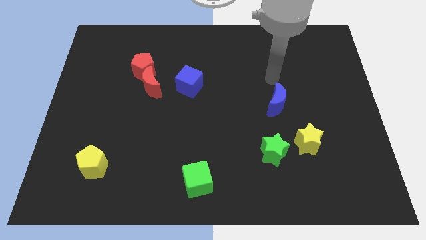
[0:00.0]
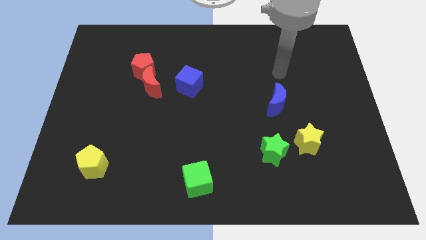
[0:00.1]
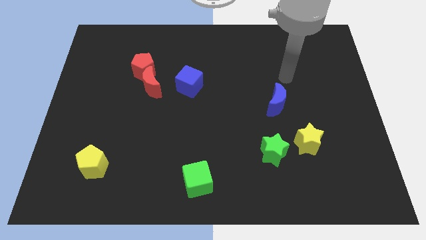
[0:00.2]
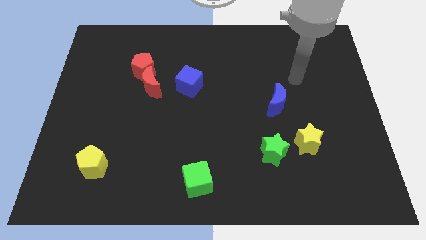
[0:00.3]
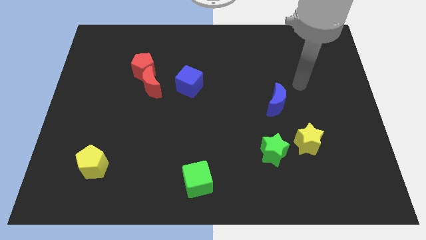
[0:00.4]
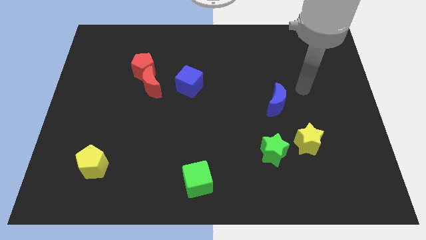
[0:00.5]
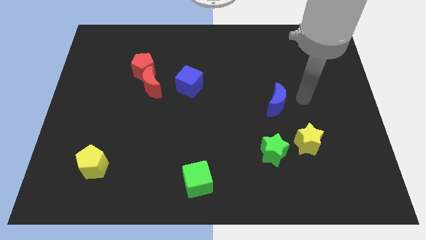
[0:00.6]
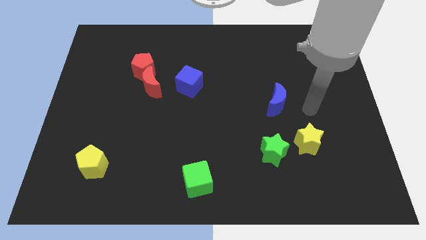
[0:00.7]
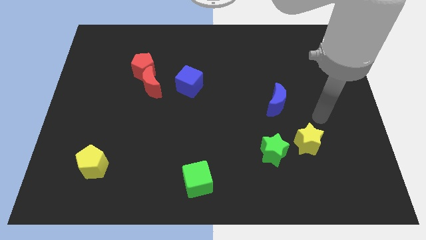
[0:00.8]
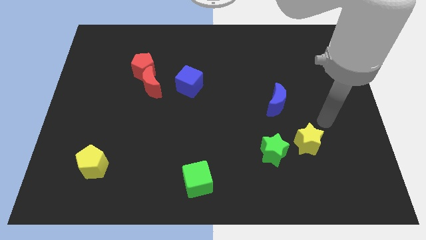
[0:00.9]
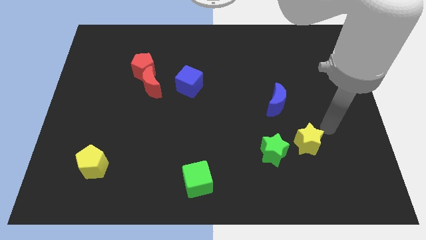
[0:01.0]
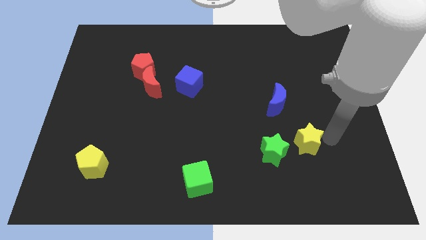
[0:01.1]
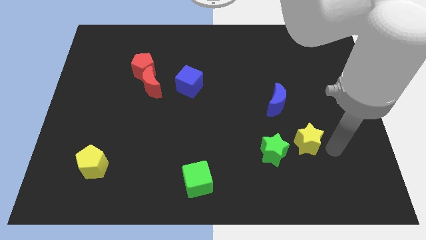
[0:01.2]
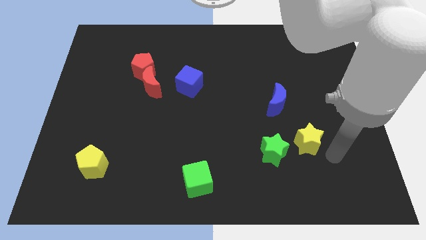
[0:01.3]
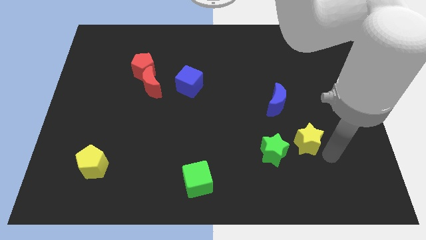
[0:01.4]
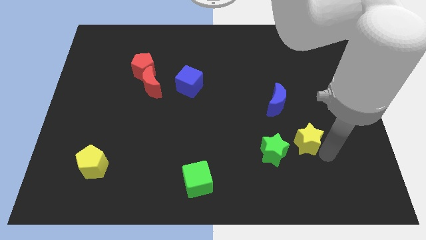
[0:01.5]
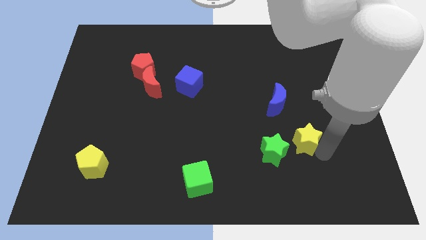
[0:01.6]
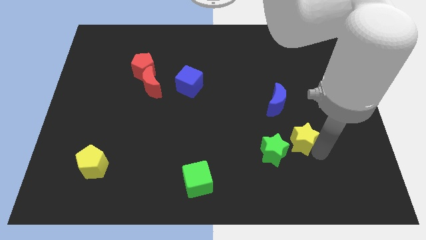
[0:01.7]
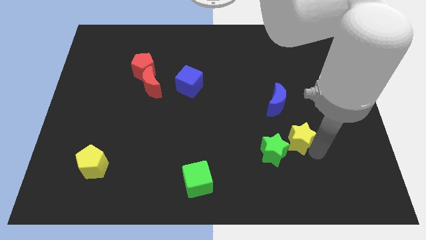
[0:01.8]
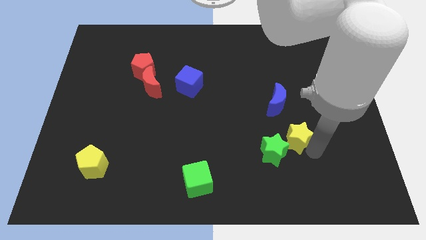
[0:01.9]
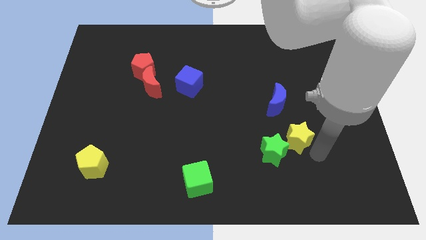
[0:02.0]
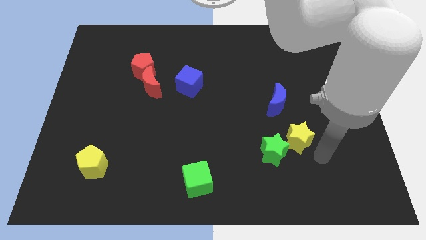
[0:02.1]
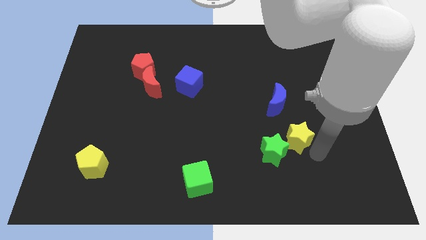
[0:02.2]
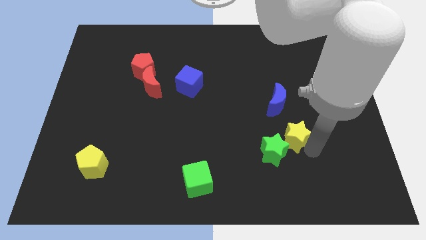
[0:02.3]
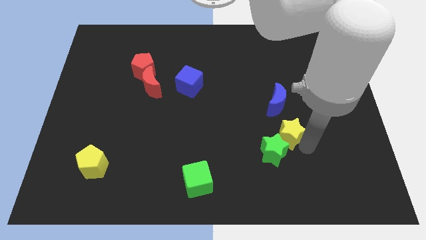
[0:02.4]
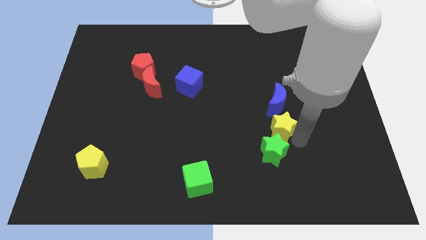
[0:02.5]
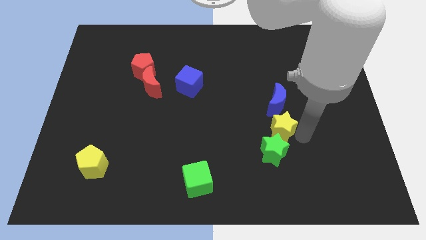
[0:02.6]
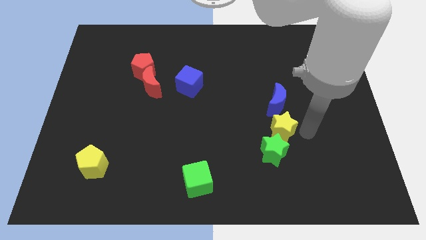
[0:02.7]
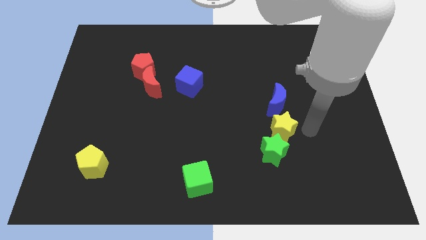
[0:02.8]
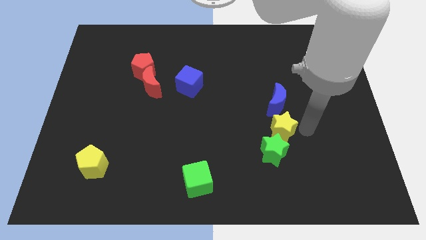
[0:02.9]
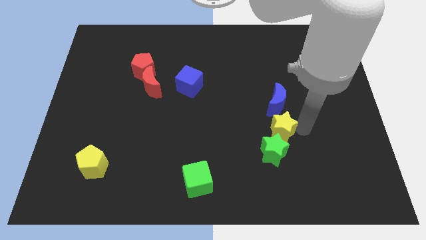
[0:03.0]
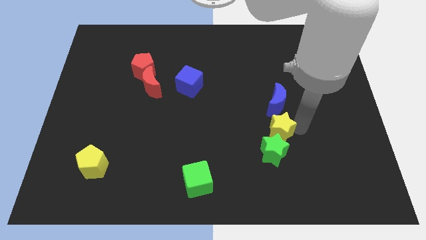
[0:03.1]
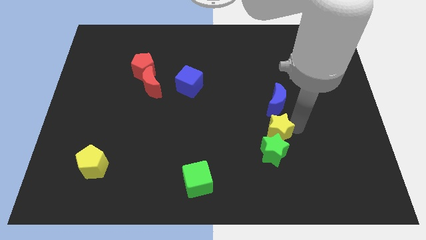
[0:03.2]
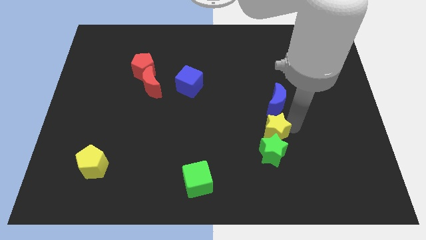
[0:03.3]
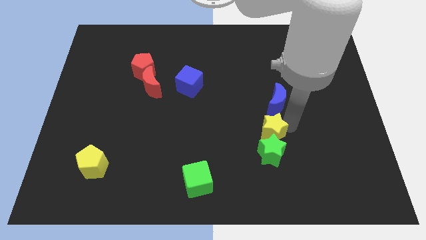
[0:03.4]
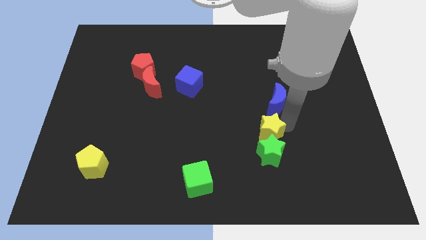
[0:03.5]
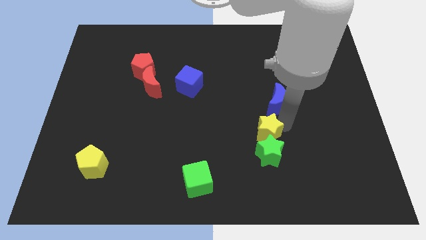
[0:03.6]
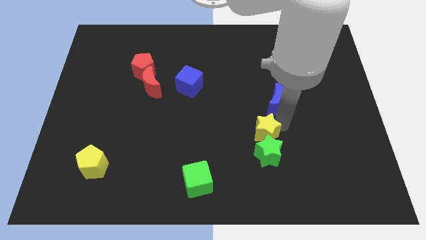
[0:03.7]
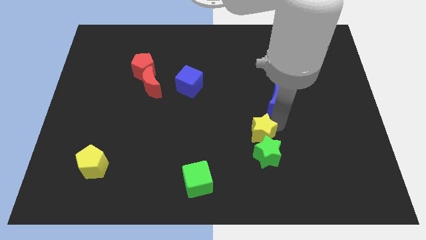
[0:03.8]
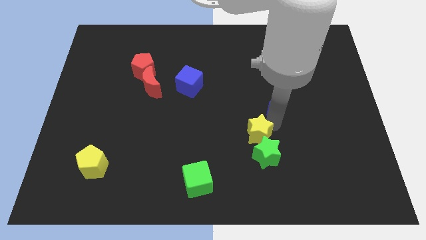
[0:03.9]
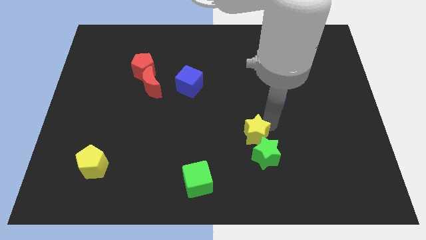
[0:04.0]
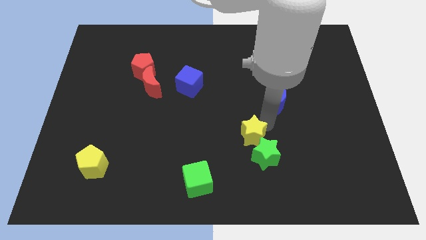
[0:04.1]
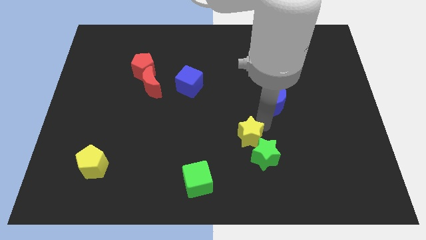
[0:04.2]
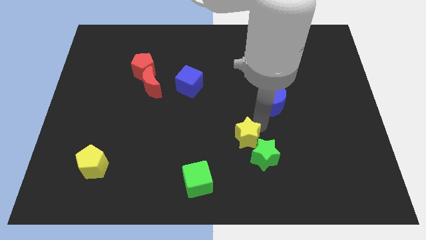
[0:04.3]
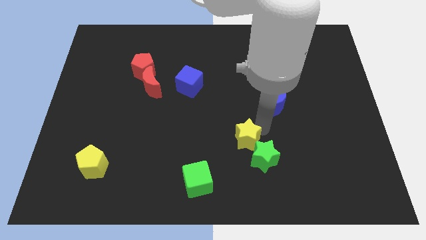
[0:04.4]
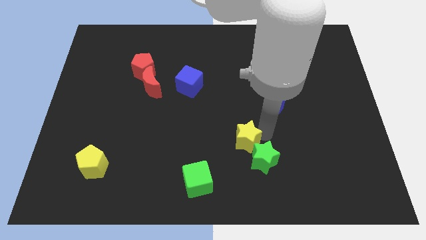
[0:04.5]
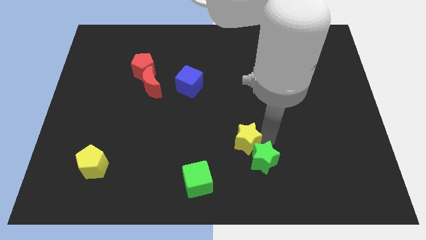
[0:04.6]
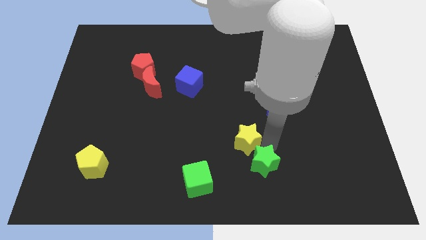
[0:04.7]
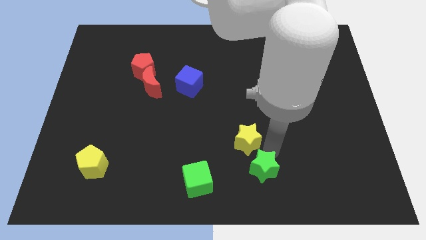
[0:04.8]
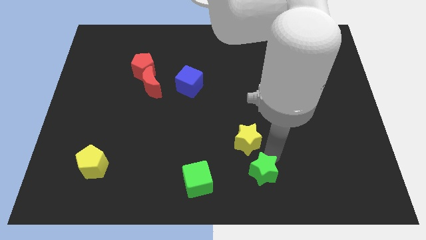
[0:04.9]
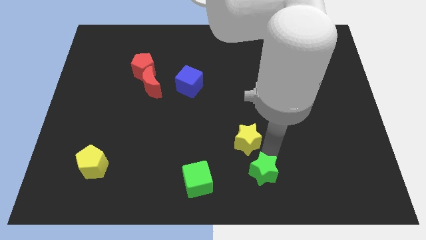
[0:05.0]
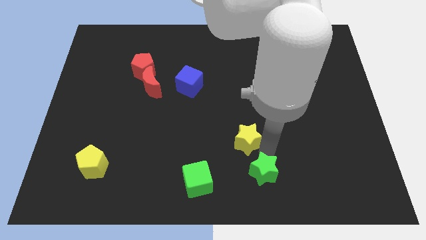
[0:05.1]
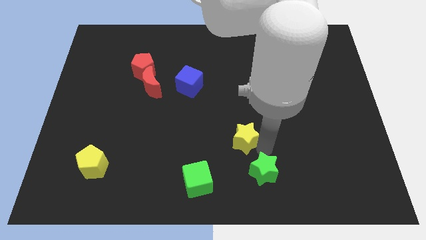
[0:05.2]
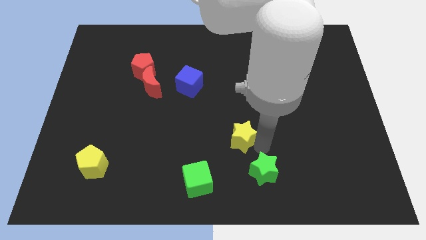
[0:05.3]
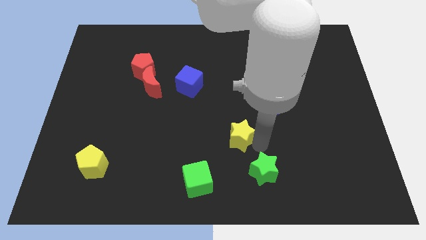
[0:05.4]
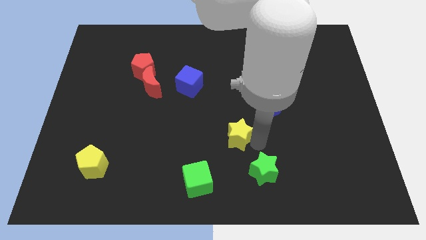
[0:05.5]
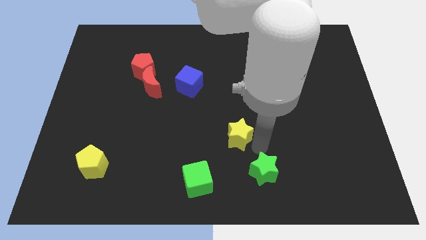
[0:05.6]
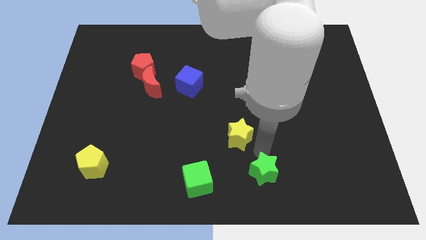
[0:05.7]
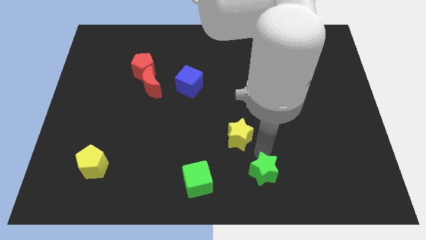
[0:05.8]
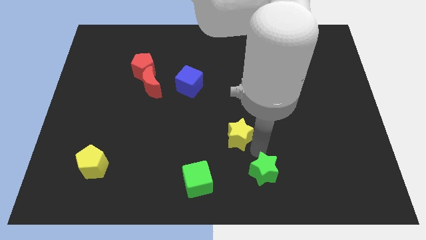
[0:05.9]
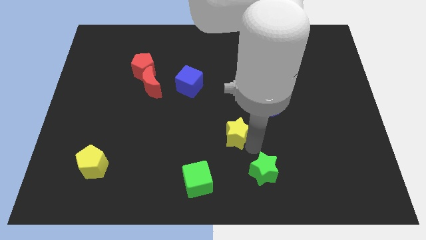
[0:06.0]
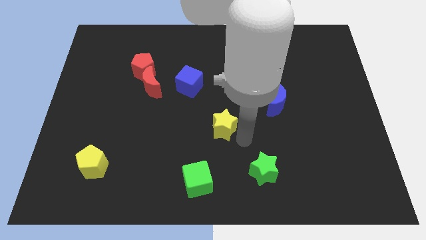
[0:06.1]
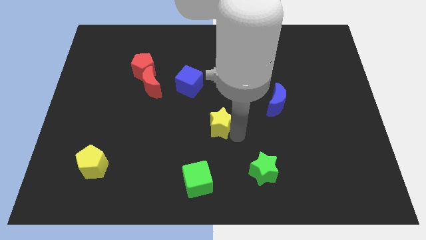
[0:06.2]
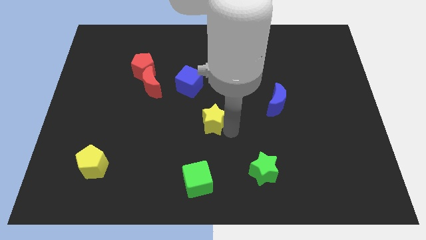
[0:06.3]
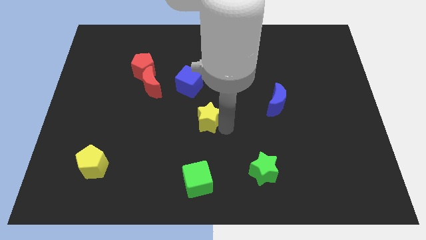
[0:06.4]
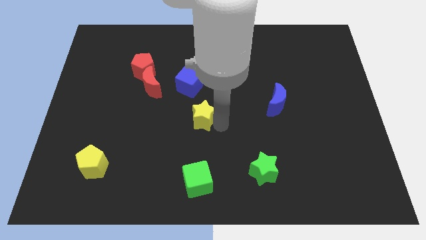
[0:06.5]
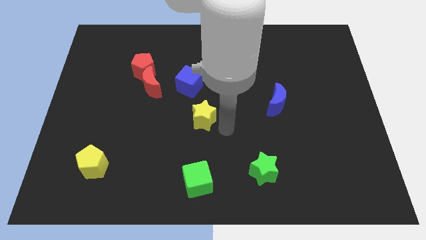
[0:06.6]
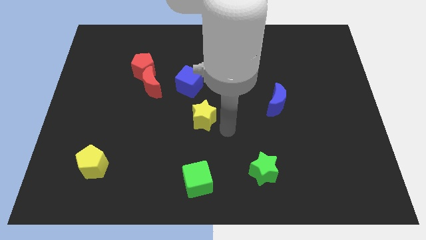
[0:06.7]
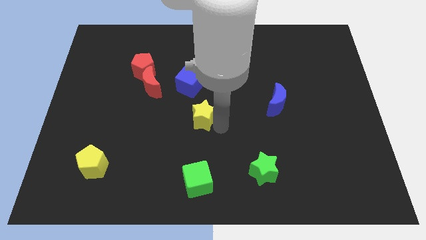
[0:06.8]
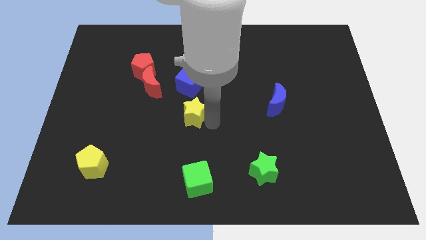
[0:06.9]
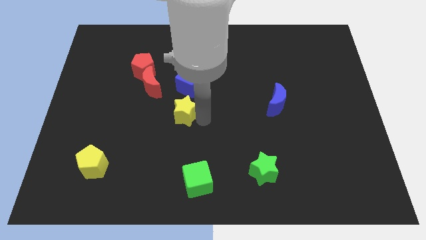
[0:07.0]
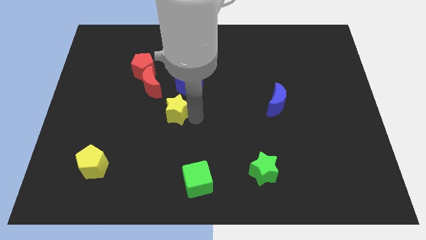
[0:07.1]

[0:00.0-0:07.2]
move the yellow star diagonally down and to the left of the blue cube

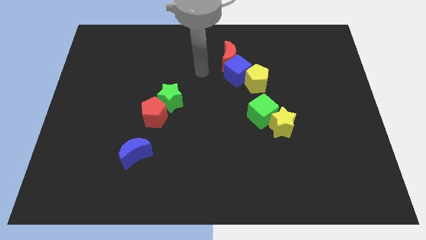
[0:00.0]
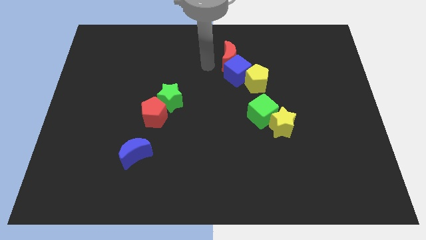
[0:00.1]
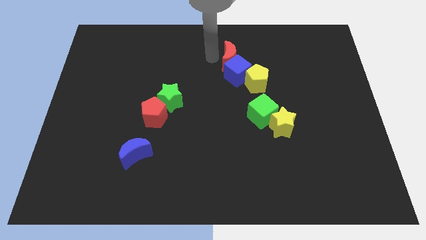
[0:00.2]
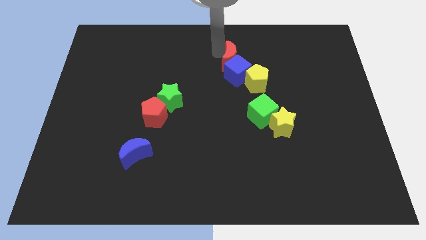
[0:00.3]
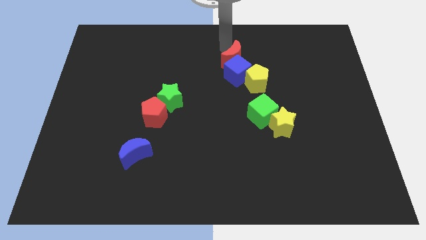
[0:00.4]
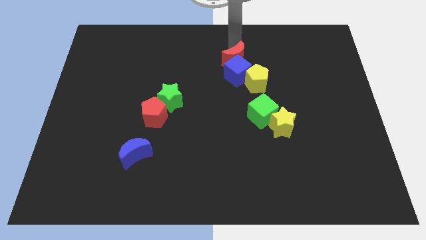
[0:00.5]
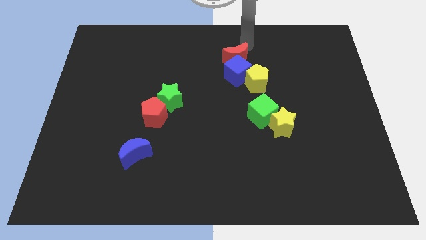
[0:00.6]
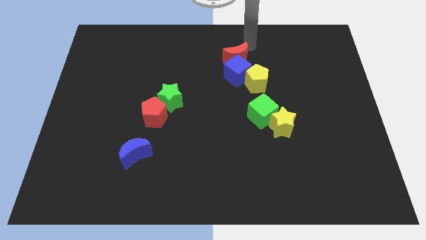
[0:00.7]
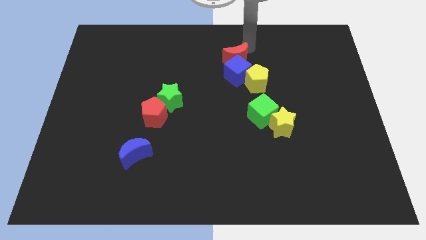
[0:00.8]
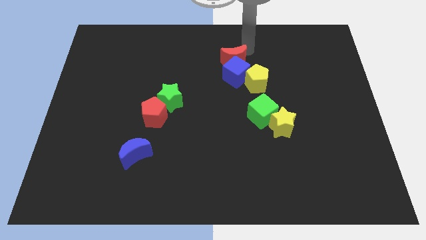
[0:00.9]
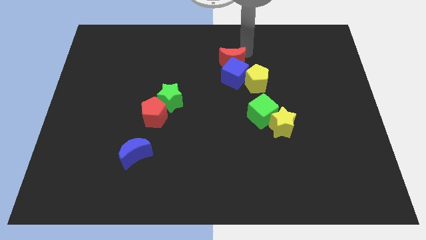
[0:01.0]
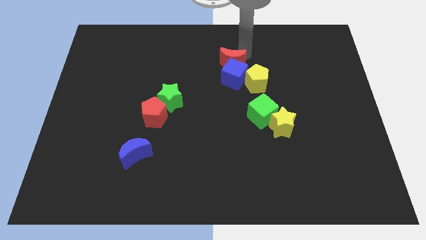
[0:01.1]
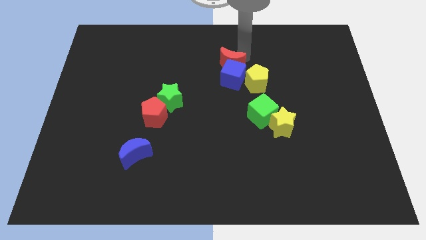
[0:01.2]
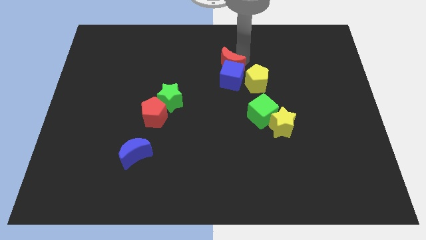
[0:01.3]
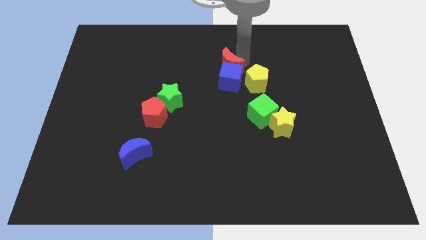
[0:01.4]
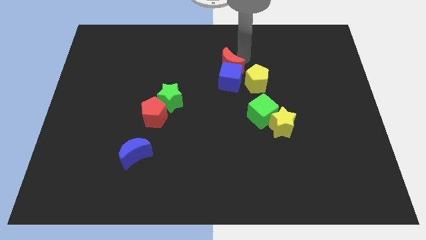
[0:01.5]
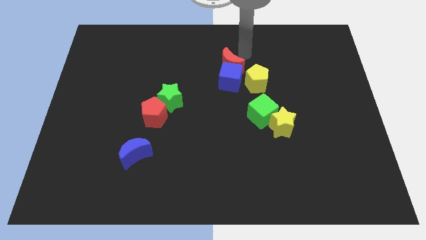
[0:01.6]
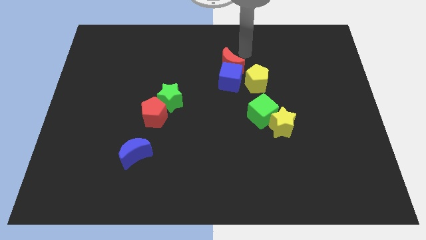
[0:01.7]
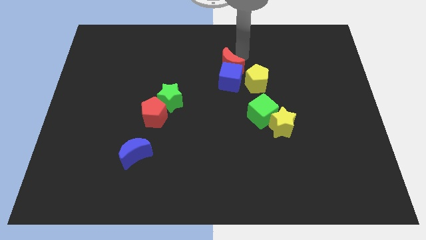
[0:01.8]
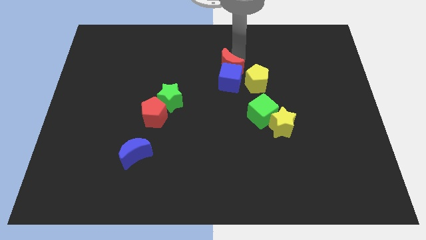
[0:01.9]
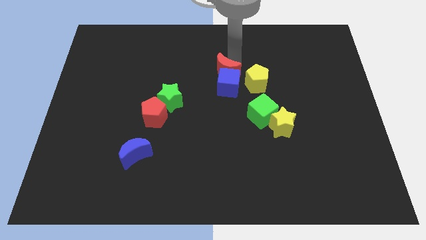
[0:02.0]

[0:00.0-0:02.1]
put the red moon to the left side of the yellow pentagon
